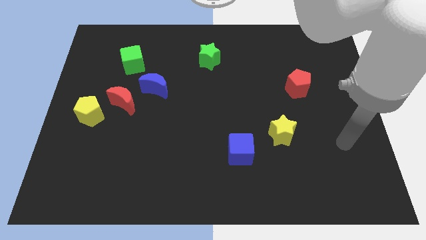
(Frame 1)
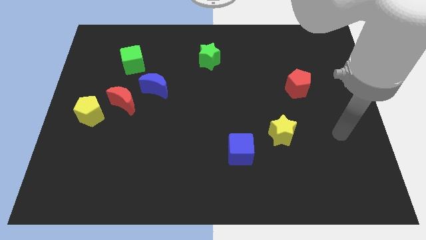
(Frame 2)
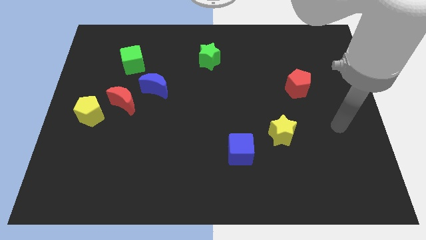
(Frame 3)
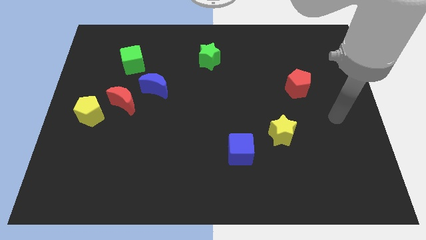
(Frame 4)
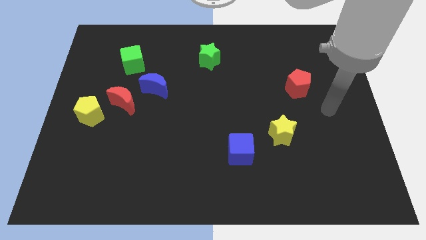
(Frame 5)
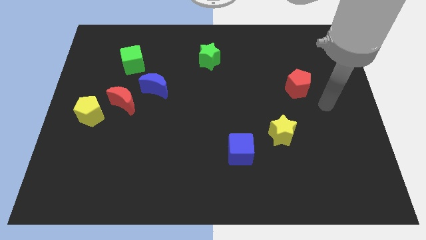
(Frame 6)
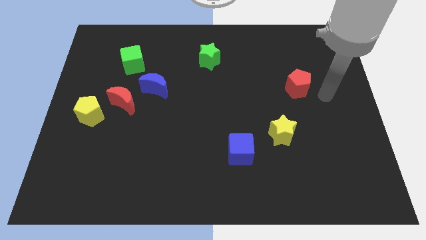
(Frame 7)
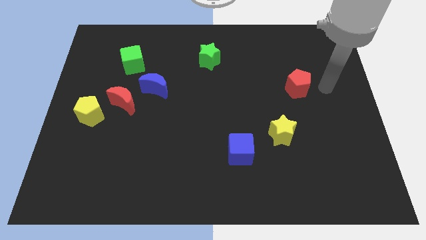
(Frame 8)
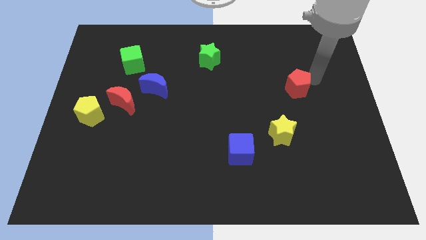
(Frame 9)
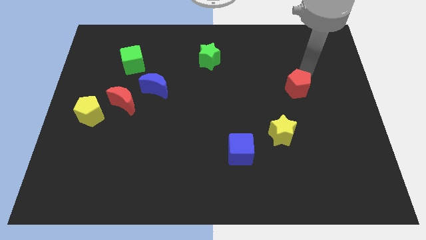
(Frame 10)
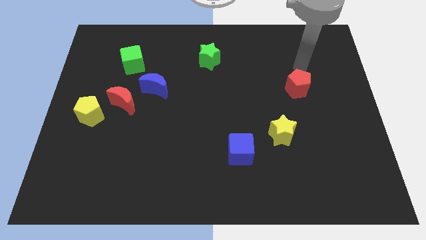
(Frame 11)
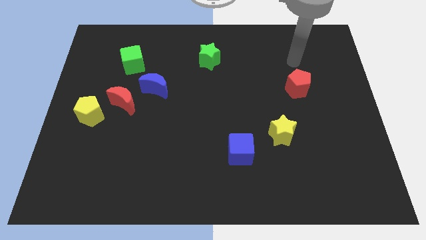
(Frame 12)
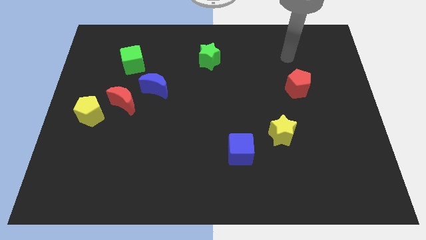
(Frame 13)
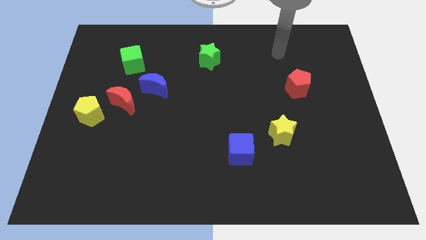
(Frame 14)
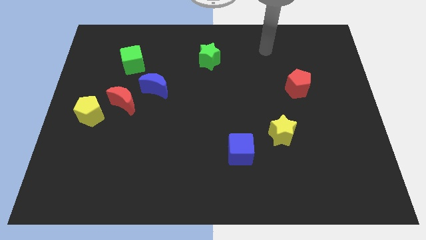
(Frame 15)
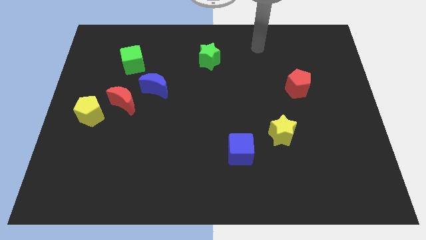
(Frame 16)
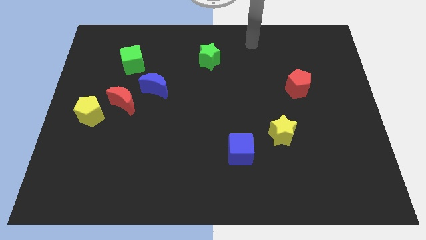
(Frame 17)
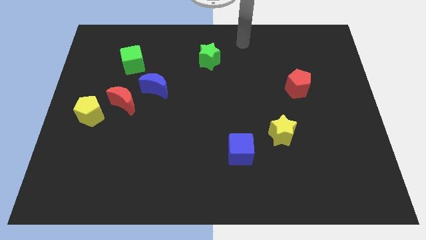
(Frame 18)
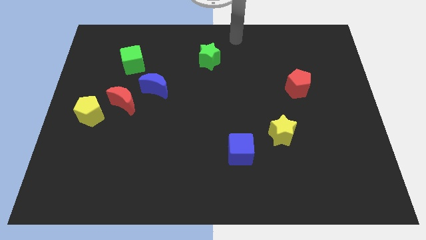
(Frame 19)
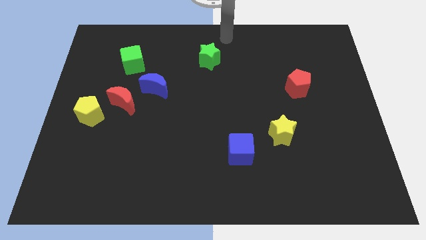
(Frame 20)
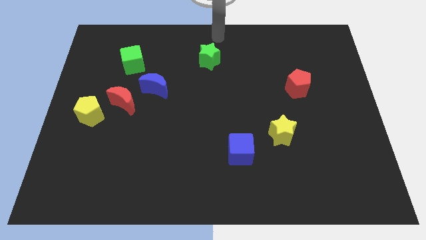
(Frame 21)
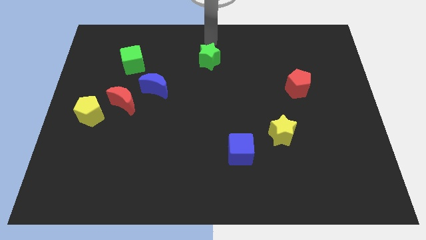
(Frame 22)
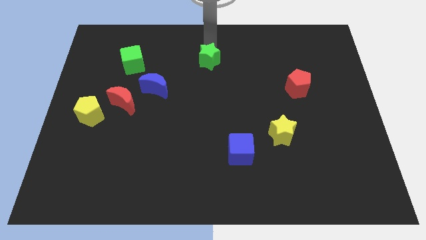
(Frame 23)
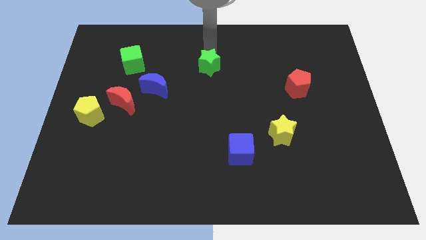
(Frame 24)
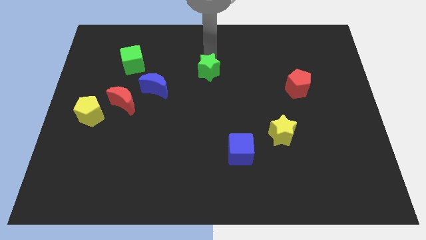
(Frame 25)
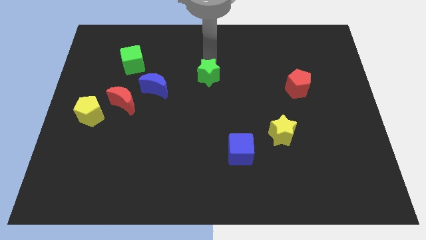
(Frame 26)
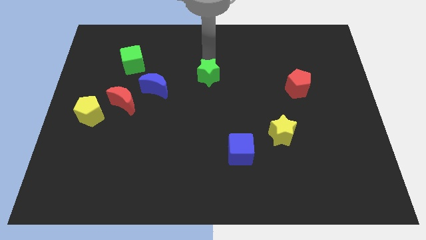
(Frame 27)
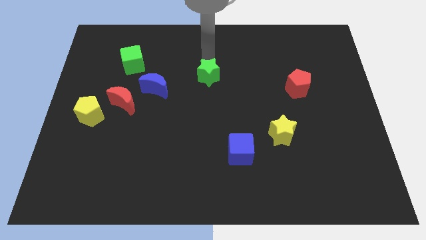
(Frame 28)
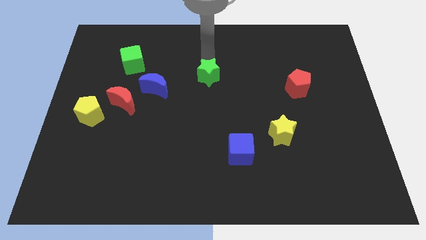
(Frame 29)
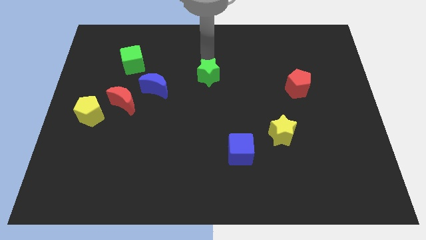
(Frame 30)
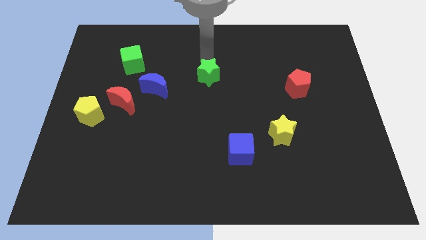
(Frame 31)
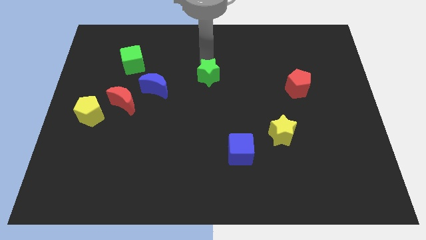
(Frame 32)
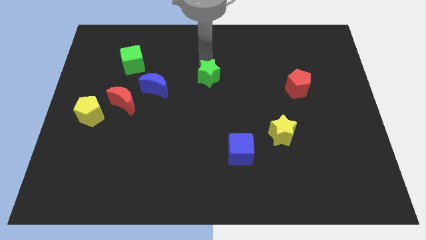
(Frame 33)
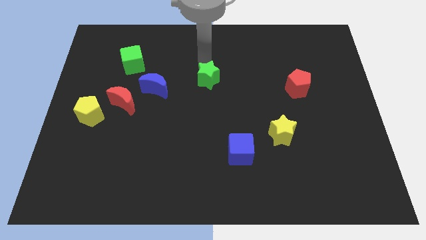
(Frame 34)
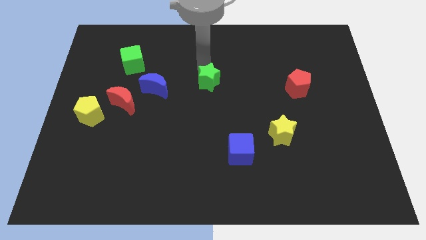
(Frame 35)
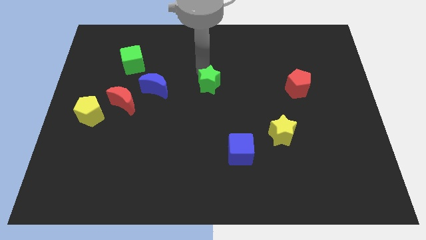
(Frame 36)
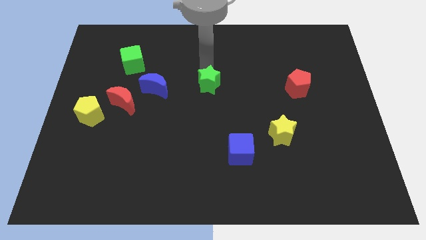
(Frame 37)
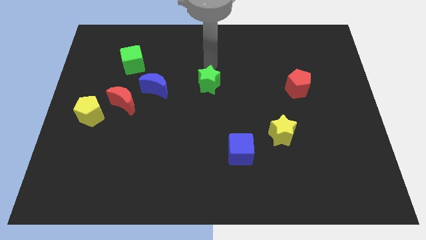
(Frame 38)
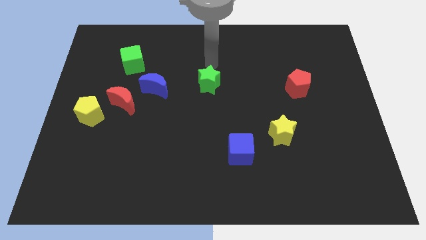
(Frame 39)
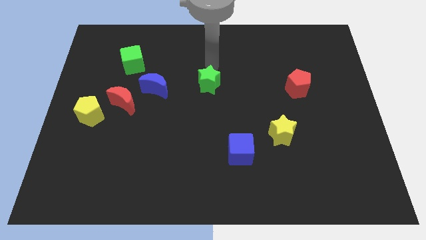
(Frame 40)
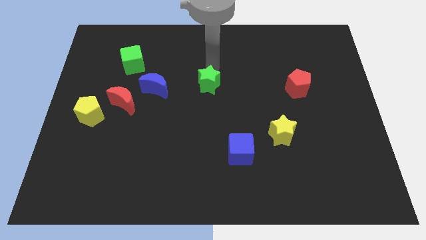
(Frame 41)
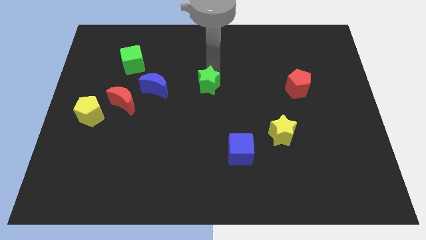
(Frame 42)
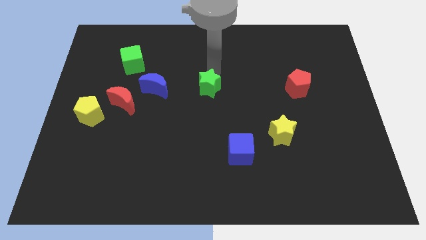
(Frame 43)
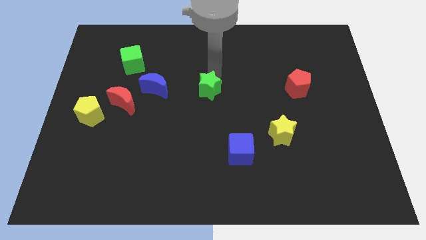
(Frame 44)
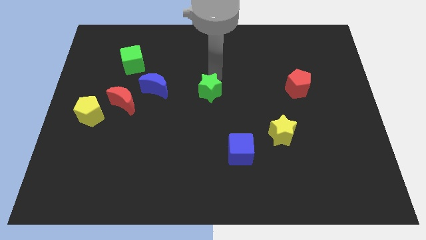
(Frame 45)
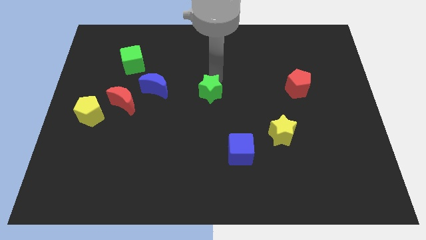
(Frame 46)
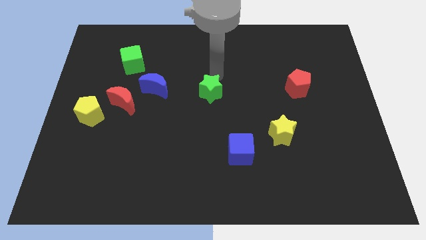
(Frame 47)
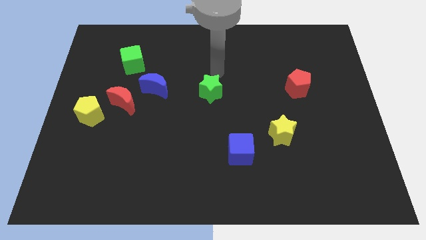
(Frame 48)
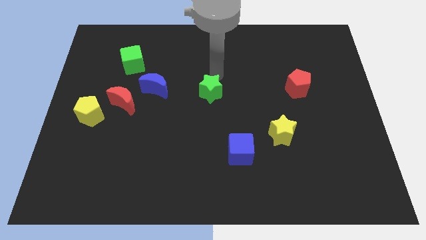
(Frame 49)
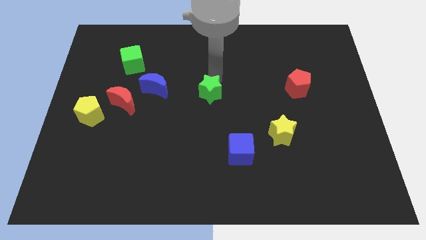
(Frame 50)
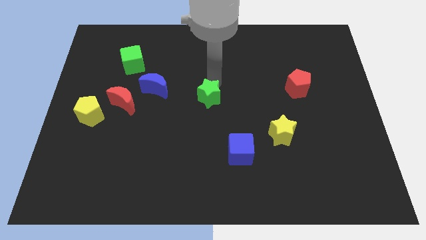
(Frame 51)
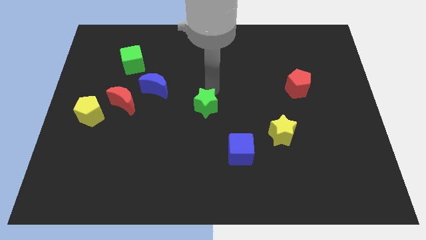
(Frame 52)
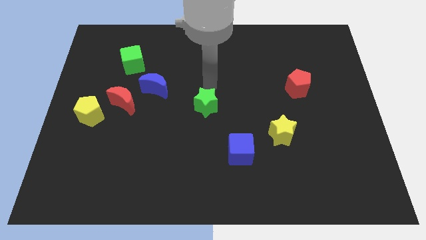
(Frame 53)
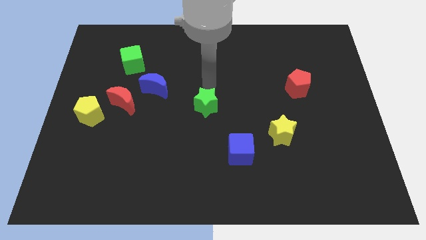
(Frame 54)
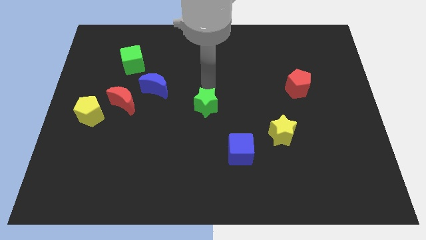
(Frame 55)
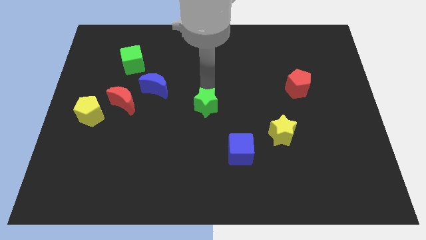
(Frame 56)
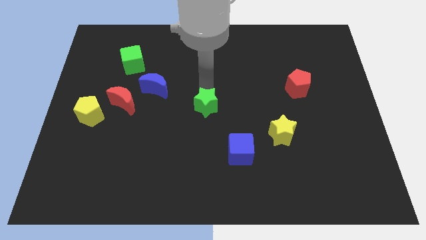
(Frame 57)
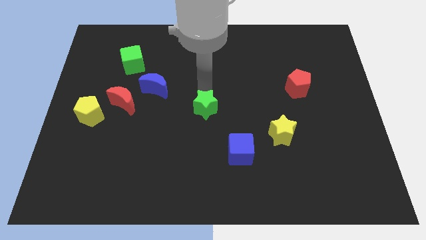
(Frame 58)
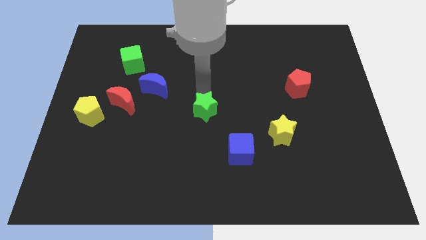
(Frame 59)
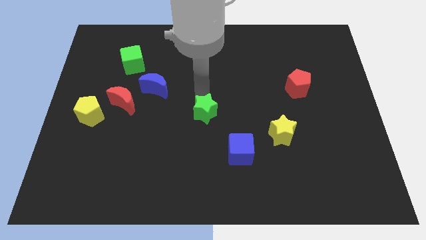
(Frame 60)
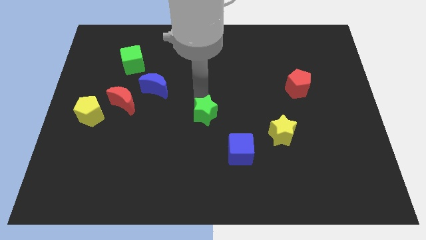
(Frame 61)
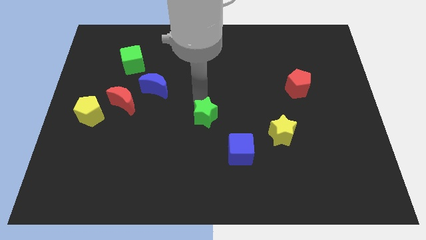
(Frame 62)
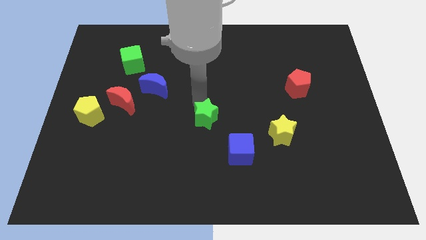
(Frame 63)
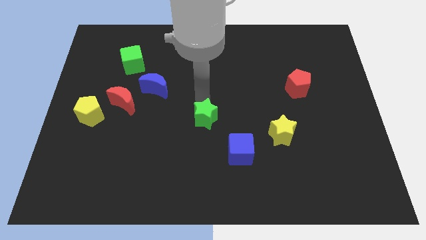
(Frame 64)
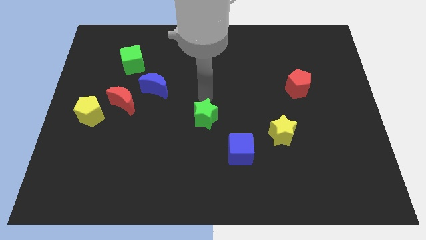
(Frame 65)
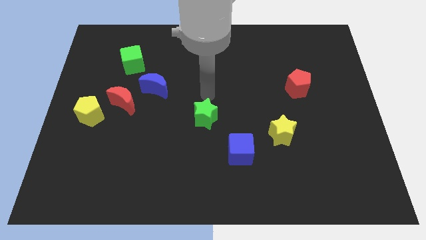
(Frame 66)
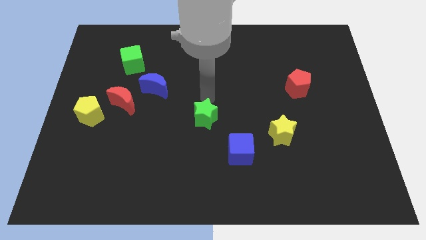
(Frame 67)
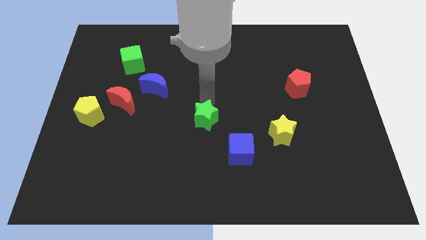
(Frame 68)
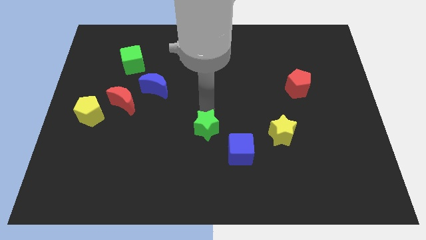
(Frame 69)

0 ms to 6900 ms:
slide the green star down

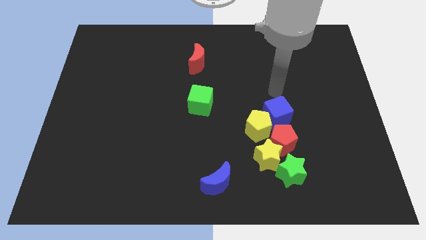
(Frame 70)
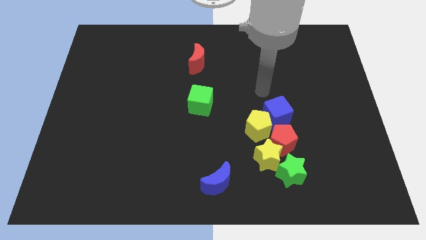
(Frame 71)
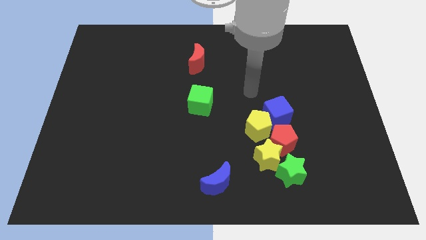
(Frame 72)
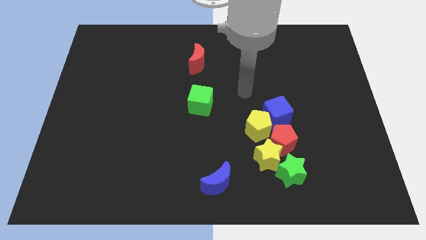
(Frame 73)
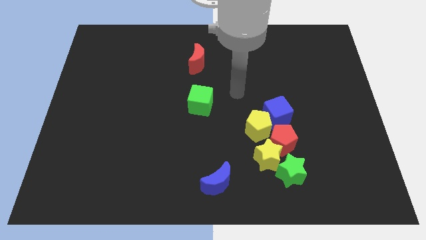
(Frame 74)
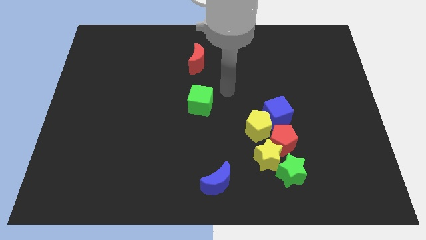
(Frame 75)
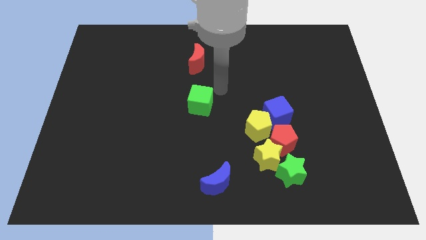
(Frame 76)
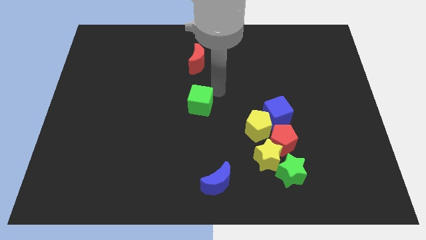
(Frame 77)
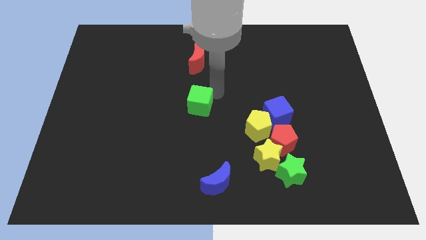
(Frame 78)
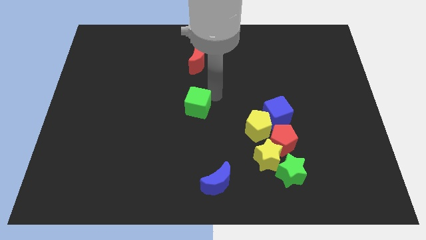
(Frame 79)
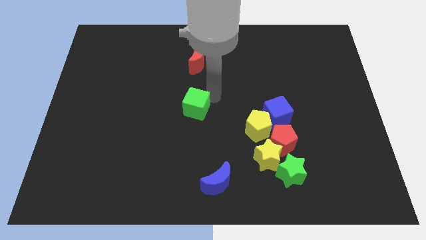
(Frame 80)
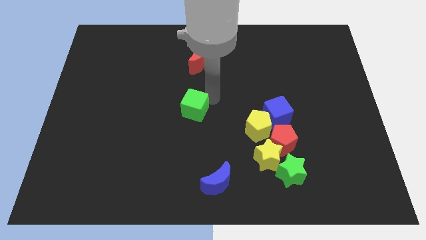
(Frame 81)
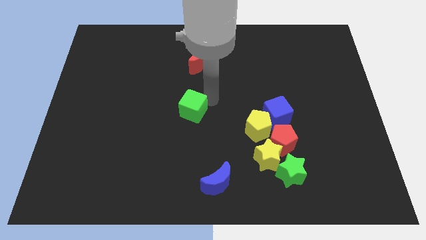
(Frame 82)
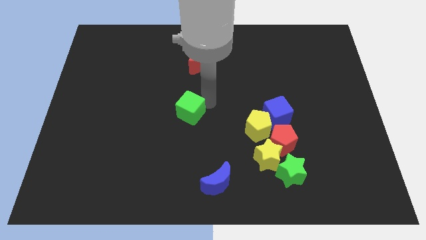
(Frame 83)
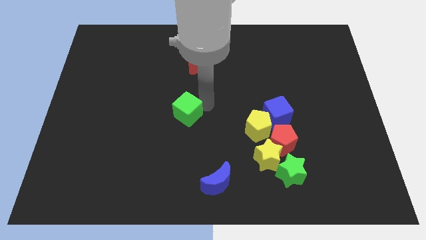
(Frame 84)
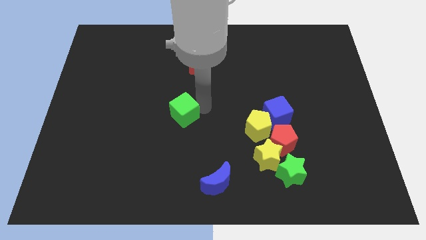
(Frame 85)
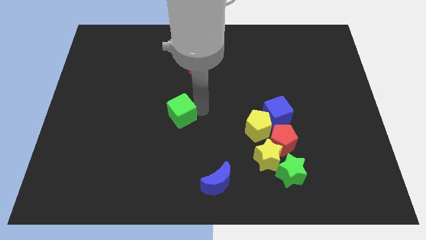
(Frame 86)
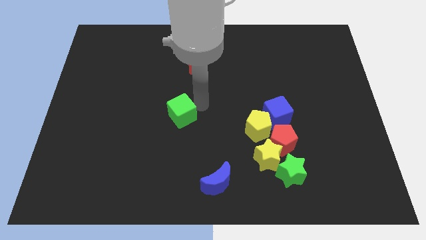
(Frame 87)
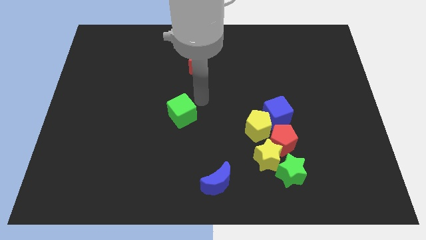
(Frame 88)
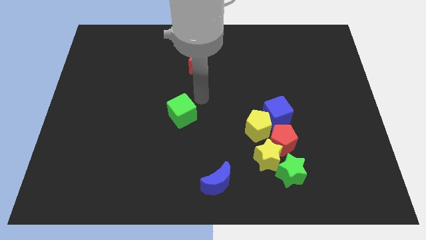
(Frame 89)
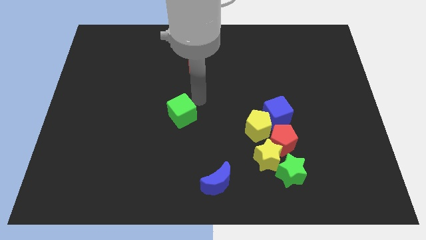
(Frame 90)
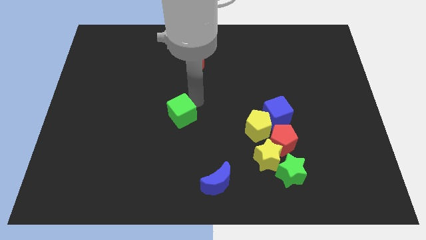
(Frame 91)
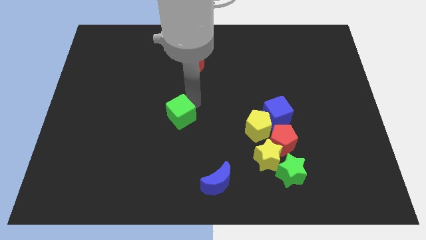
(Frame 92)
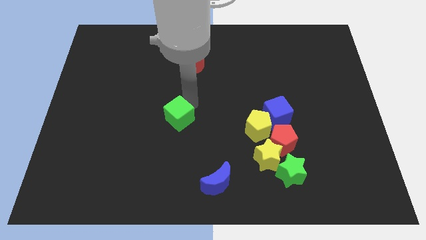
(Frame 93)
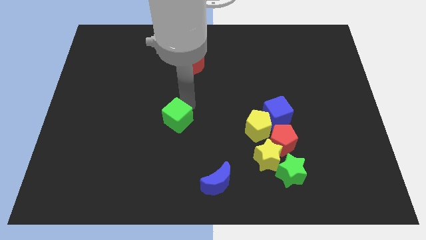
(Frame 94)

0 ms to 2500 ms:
push the green cube down and left a little
